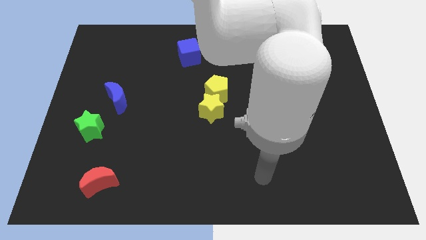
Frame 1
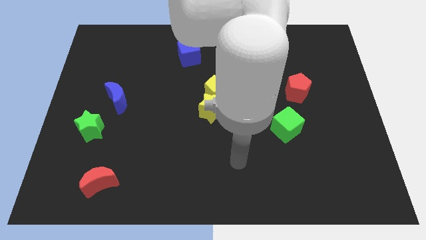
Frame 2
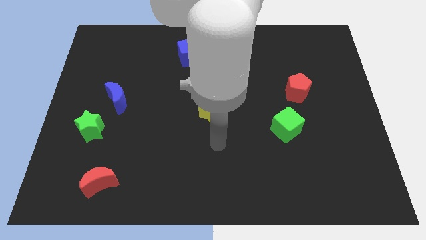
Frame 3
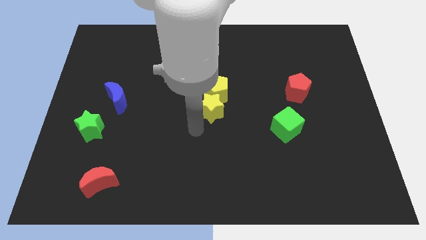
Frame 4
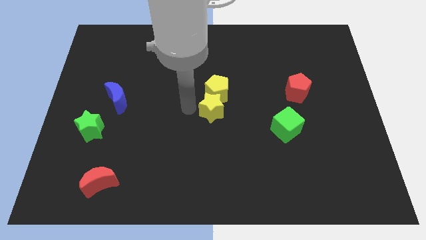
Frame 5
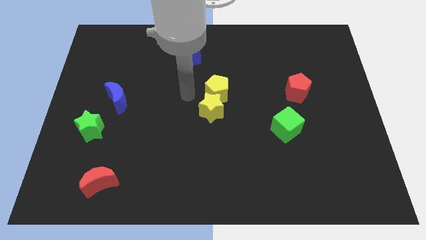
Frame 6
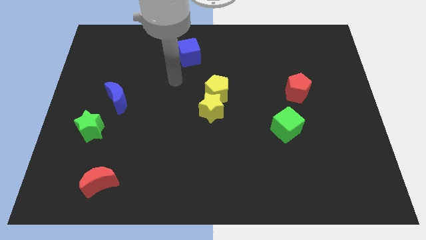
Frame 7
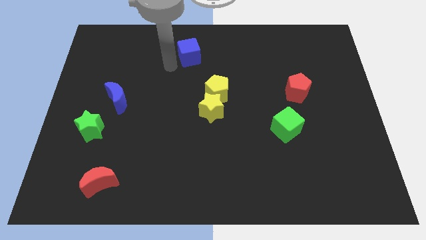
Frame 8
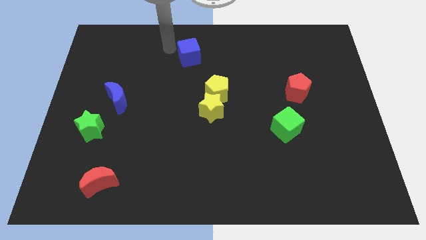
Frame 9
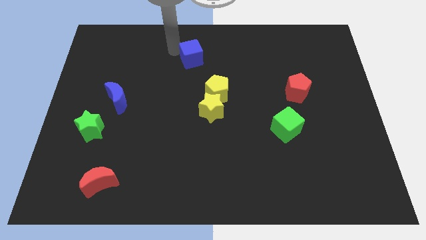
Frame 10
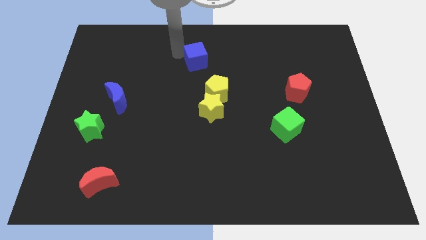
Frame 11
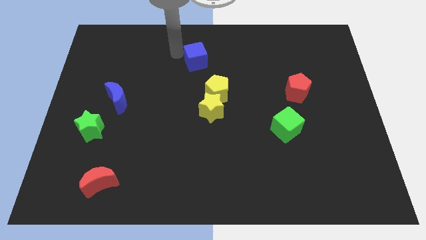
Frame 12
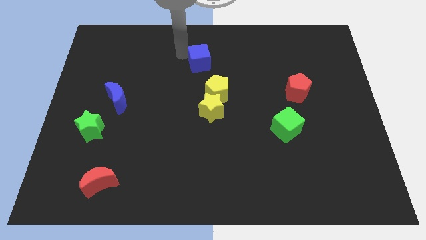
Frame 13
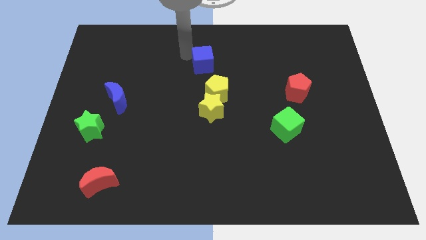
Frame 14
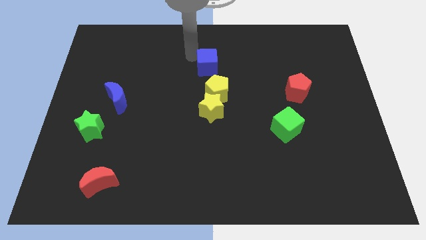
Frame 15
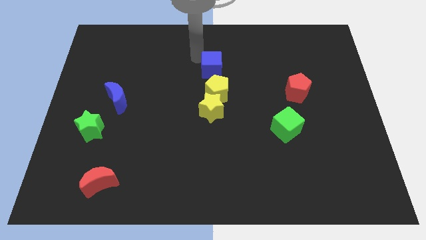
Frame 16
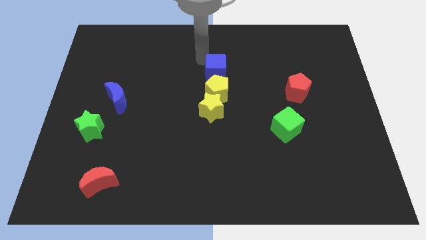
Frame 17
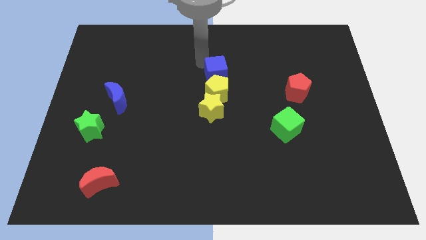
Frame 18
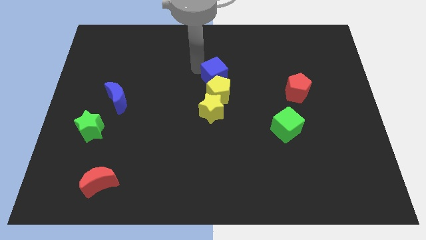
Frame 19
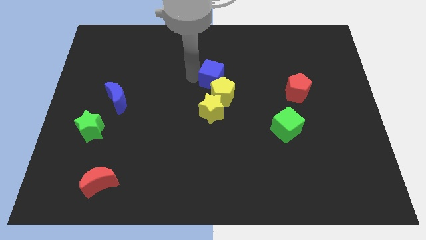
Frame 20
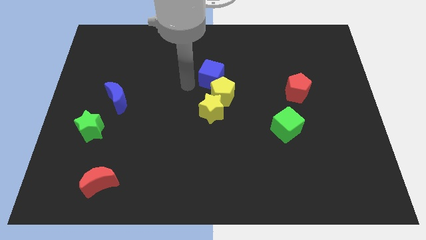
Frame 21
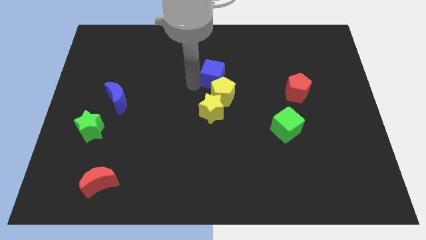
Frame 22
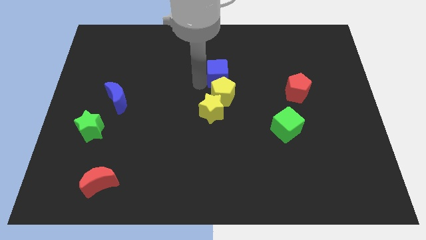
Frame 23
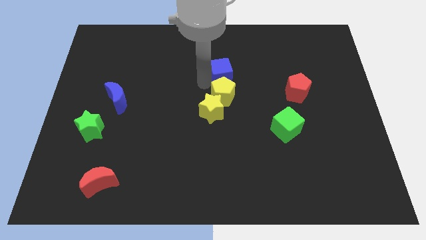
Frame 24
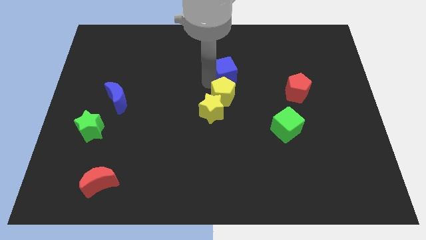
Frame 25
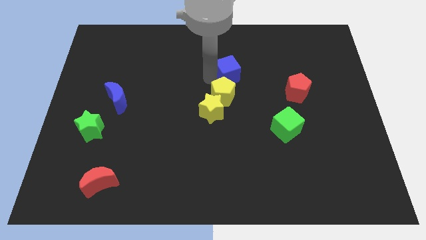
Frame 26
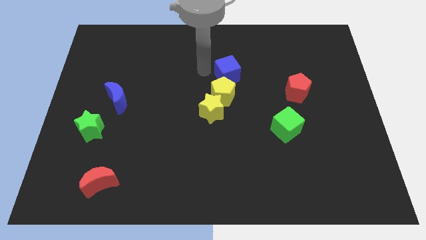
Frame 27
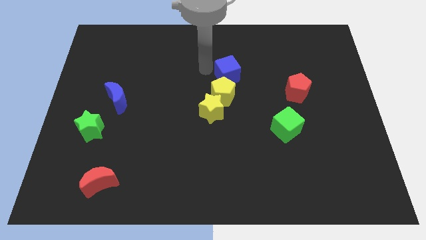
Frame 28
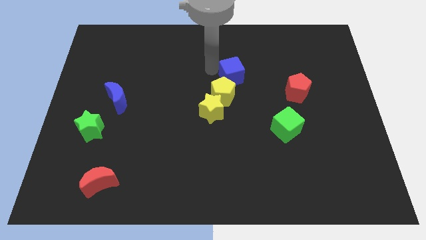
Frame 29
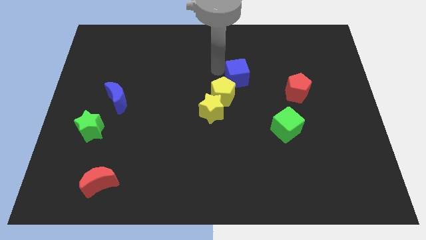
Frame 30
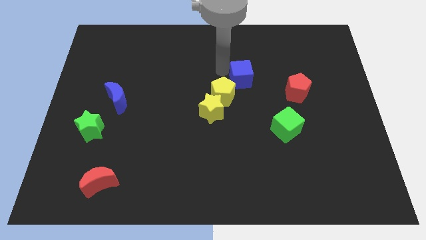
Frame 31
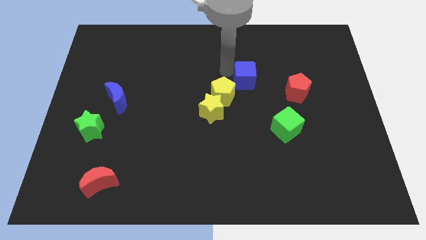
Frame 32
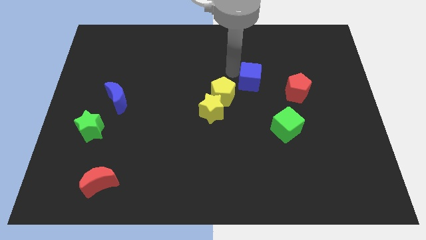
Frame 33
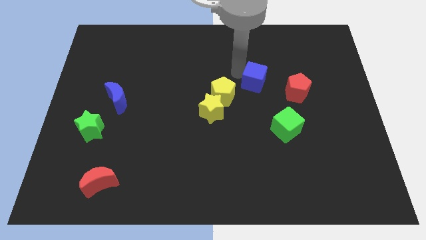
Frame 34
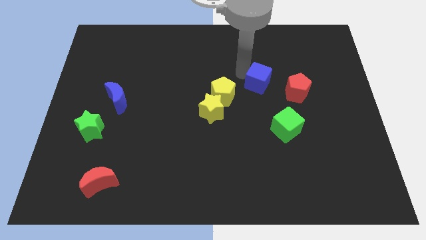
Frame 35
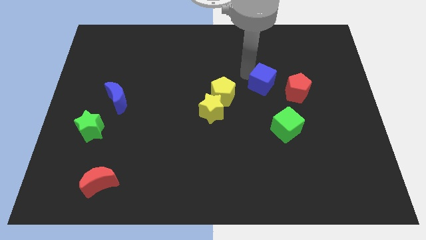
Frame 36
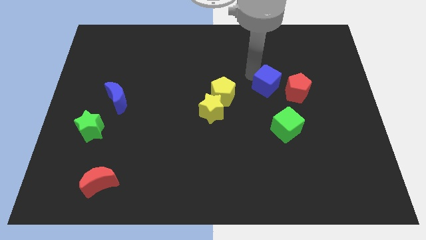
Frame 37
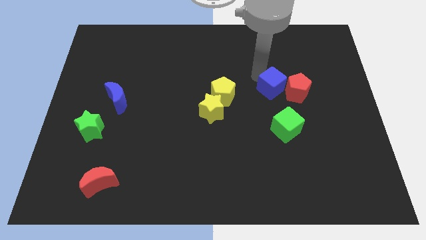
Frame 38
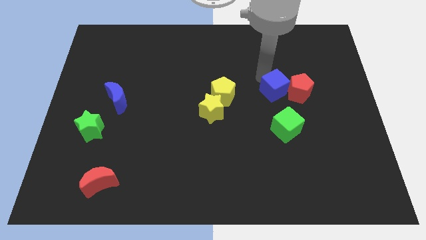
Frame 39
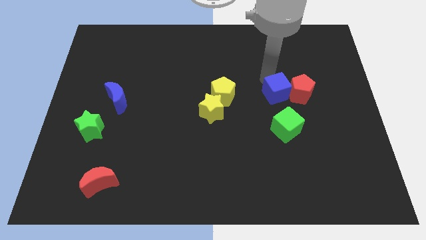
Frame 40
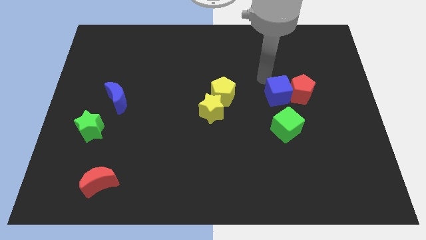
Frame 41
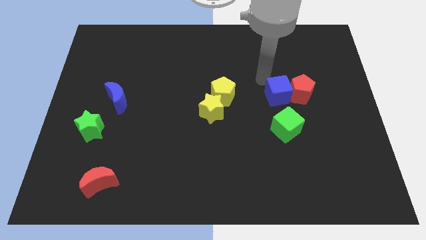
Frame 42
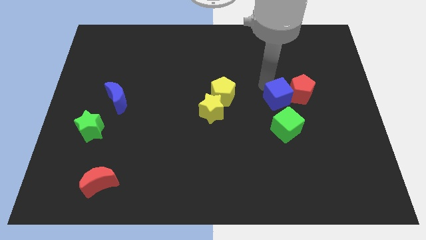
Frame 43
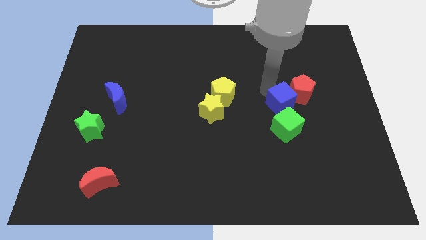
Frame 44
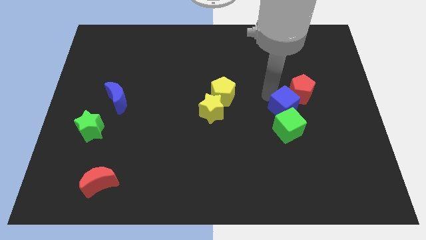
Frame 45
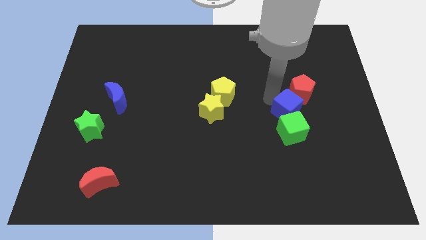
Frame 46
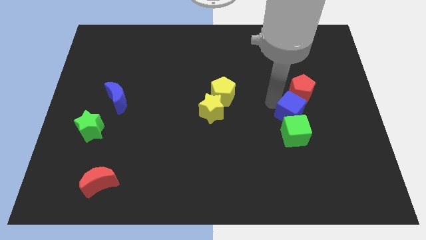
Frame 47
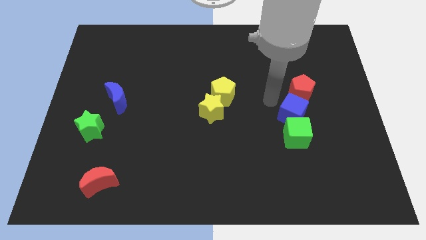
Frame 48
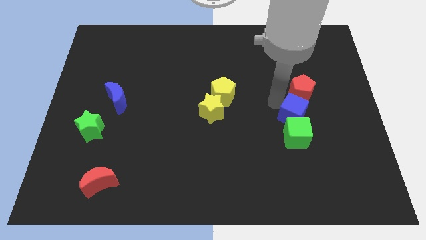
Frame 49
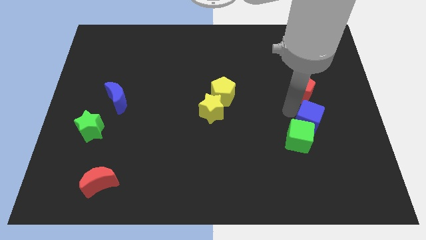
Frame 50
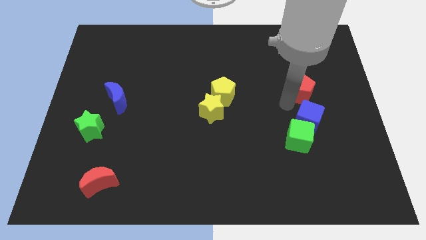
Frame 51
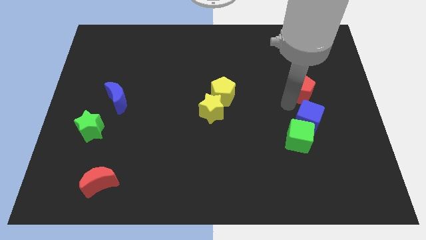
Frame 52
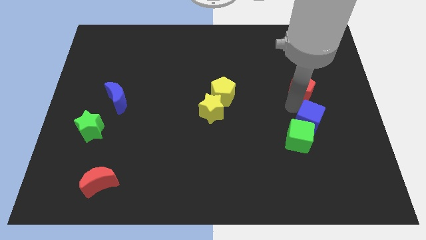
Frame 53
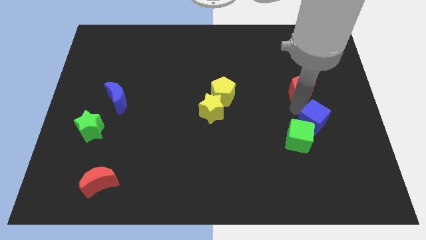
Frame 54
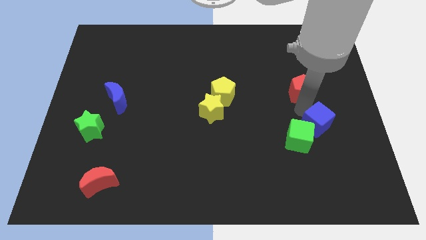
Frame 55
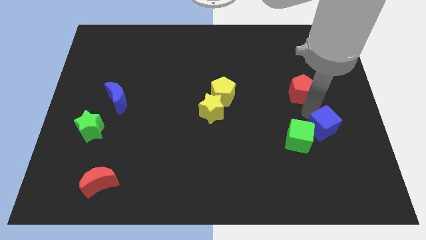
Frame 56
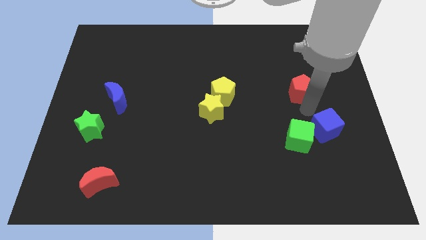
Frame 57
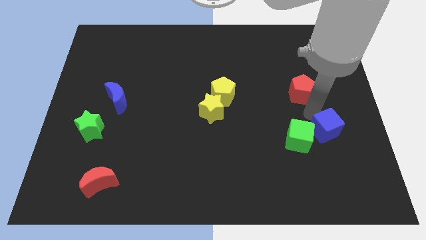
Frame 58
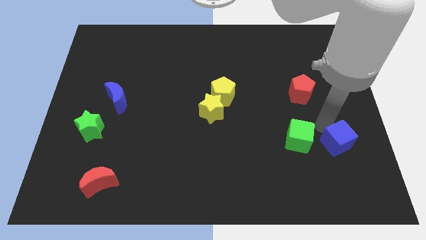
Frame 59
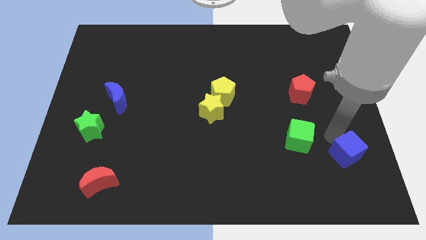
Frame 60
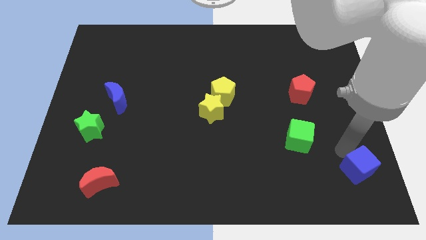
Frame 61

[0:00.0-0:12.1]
slide the blue cube to the bottom right

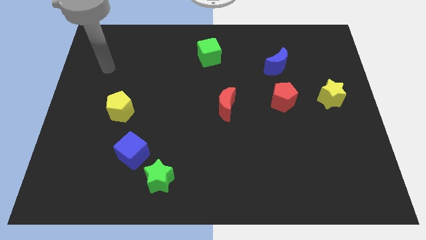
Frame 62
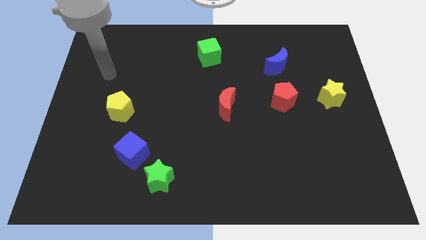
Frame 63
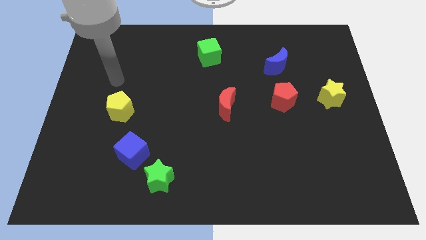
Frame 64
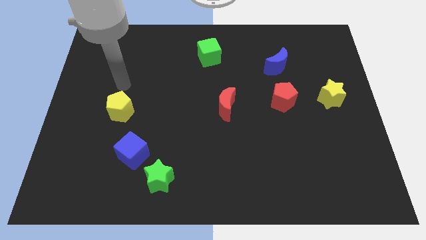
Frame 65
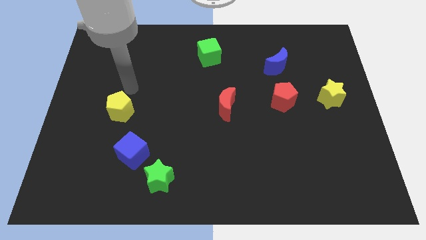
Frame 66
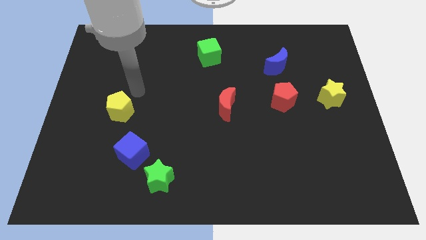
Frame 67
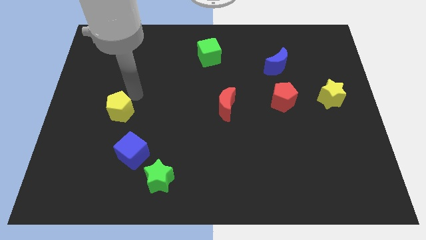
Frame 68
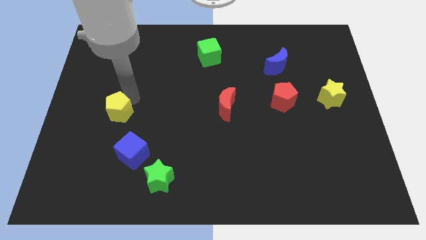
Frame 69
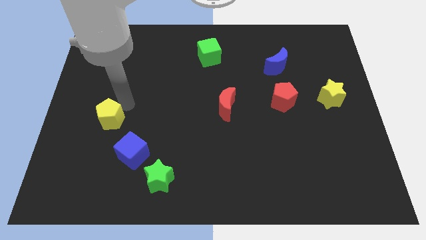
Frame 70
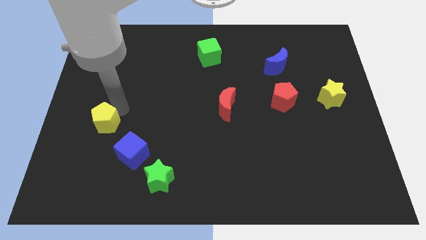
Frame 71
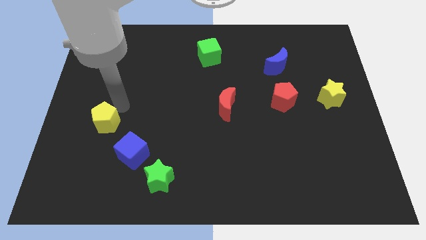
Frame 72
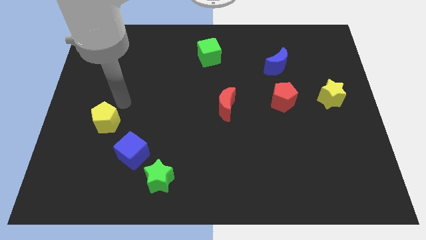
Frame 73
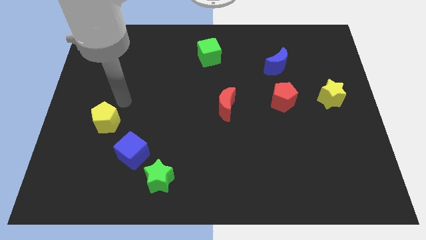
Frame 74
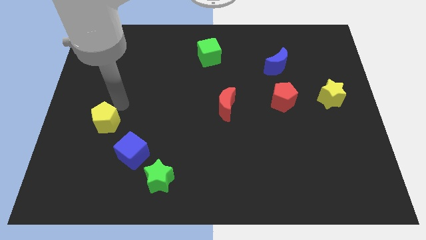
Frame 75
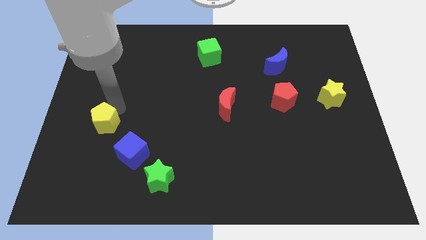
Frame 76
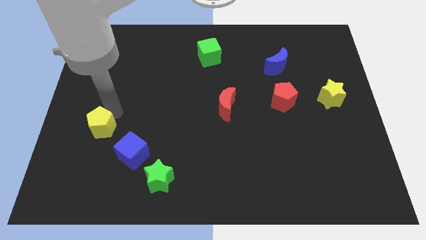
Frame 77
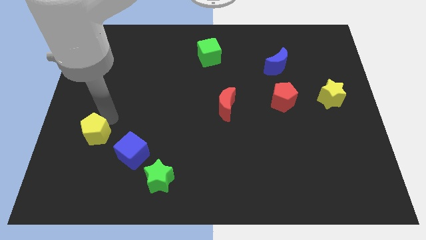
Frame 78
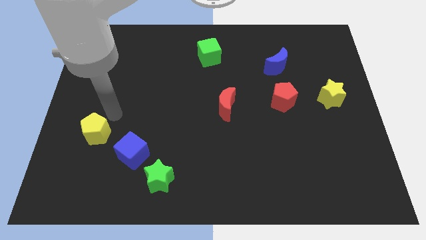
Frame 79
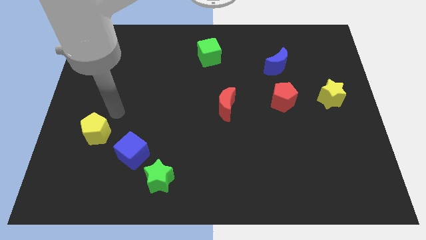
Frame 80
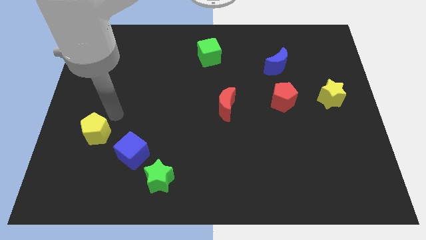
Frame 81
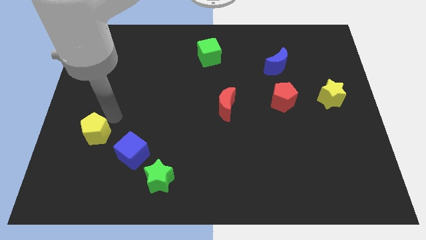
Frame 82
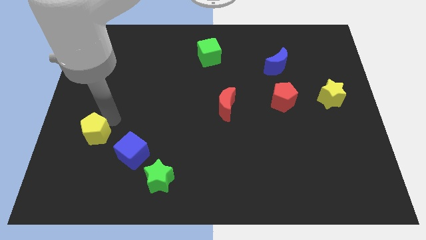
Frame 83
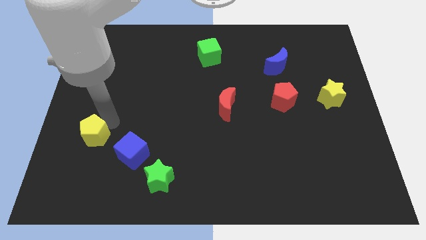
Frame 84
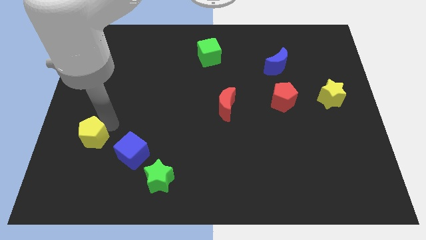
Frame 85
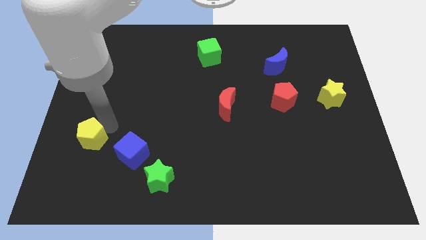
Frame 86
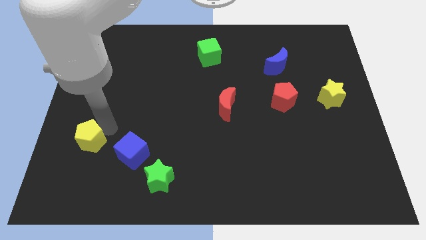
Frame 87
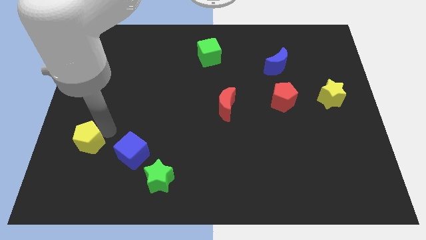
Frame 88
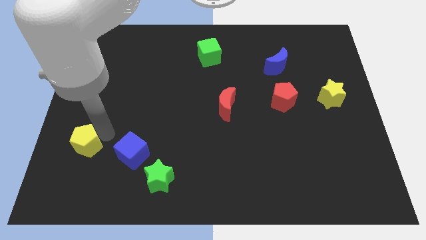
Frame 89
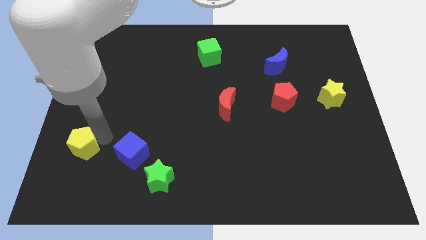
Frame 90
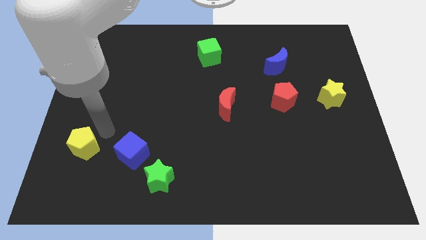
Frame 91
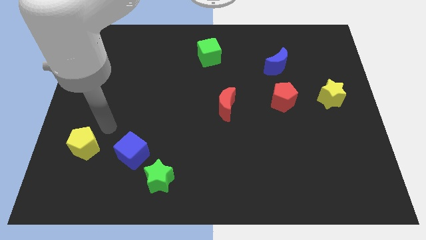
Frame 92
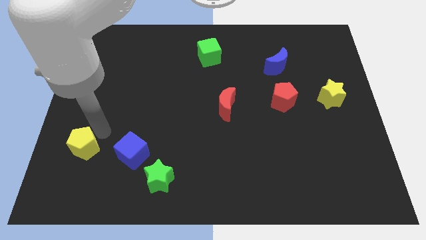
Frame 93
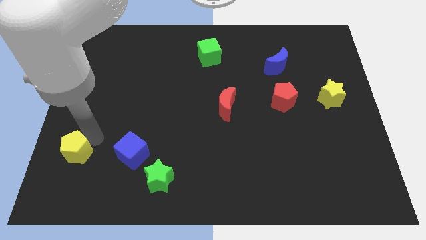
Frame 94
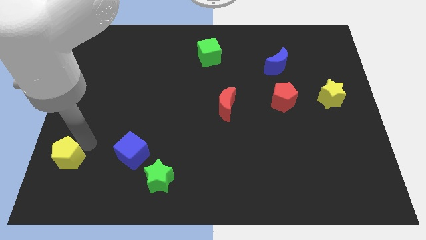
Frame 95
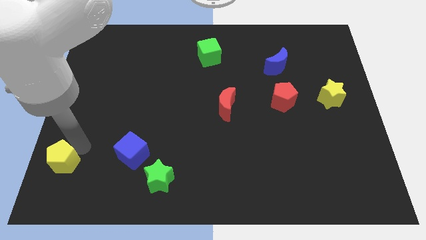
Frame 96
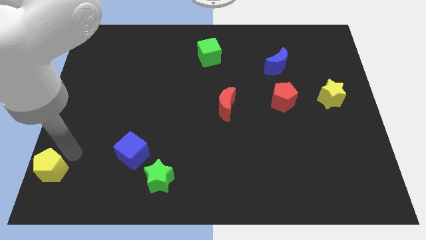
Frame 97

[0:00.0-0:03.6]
move the yellow pentagon to the bottom left of the board
